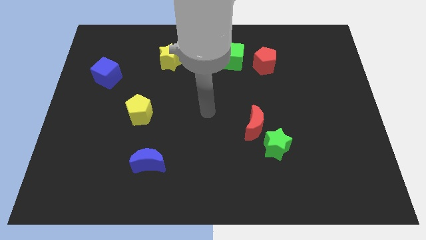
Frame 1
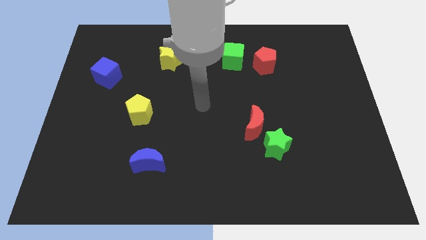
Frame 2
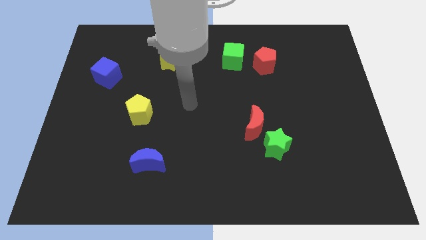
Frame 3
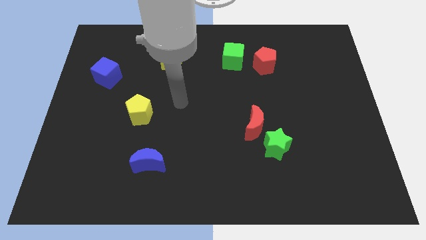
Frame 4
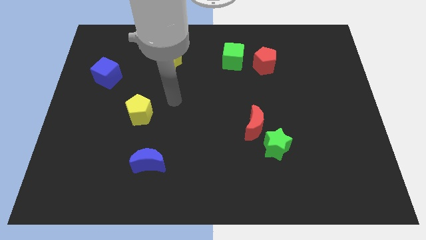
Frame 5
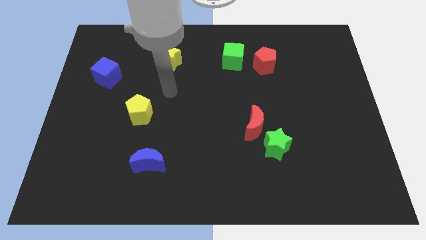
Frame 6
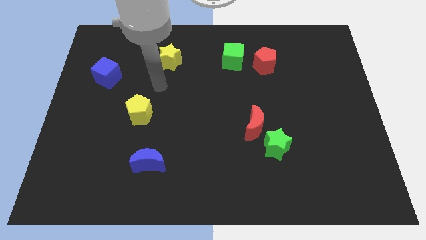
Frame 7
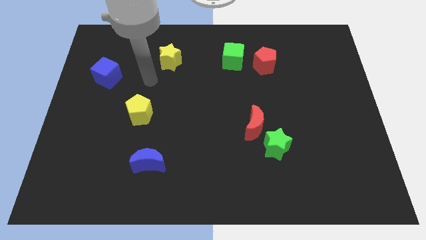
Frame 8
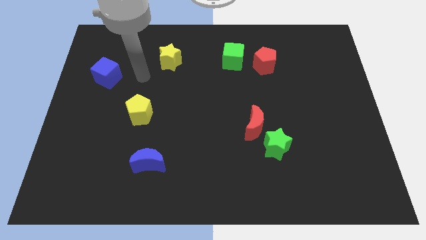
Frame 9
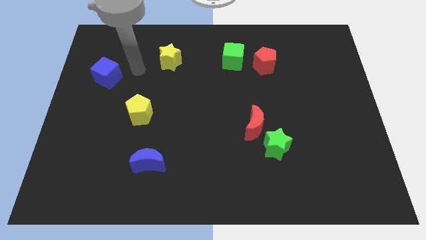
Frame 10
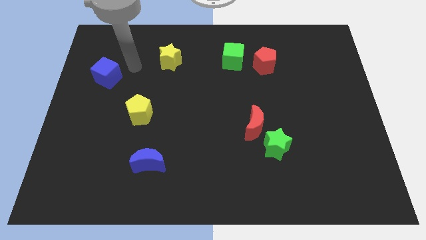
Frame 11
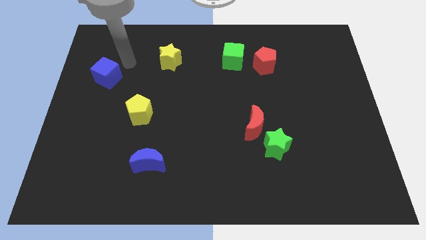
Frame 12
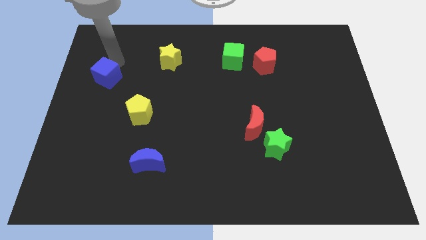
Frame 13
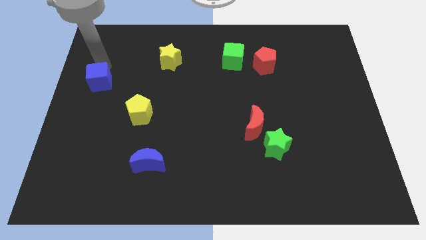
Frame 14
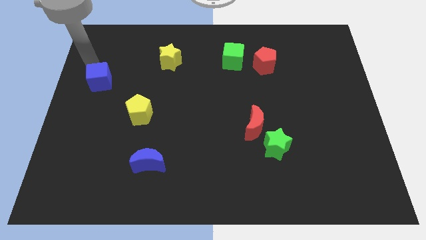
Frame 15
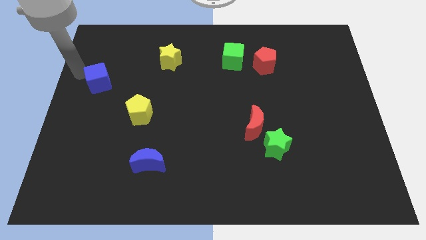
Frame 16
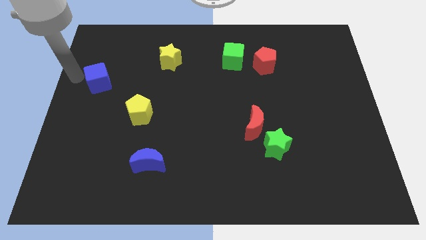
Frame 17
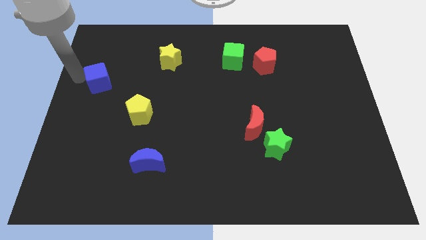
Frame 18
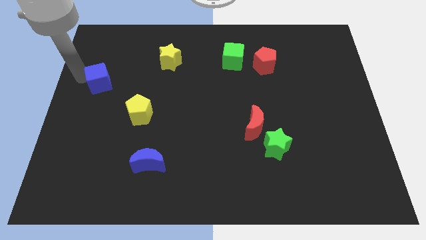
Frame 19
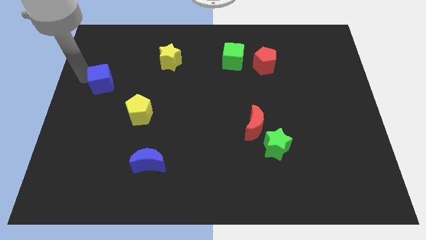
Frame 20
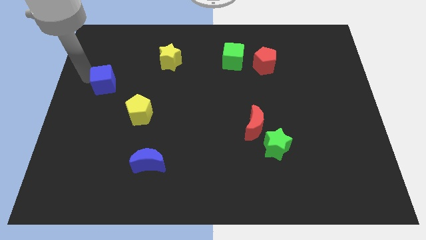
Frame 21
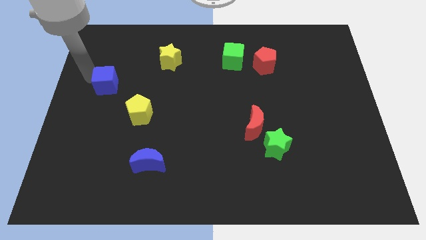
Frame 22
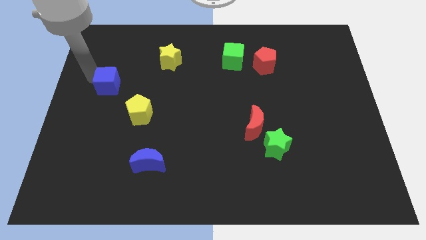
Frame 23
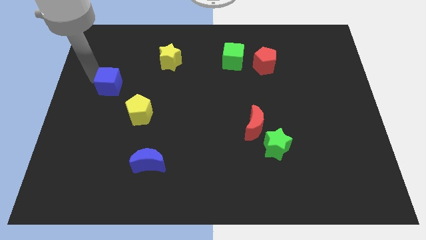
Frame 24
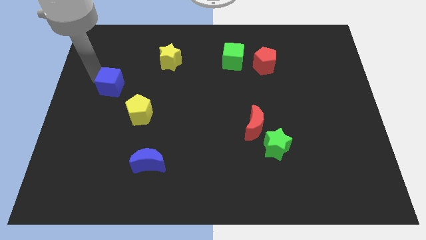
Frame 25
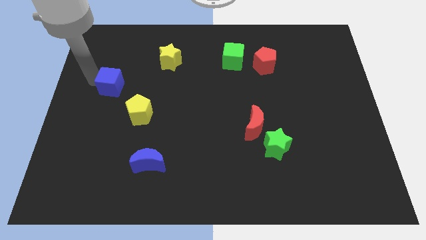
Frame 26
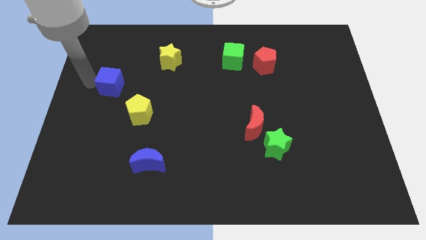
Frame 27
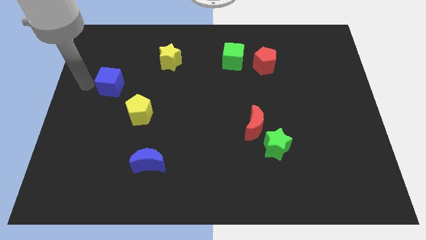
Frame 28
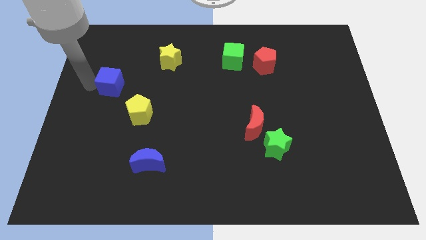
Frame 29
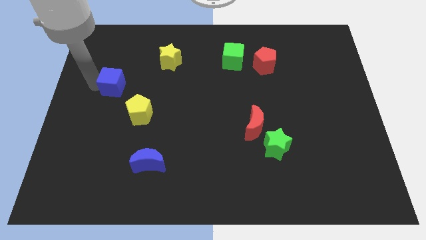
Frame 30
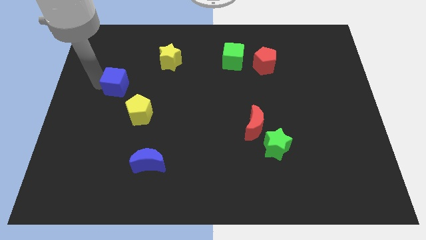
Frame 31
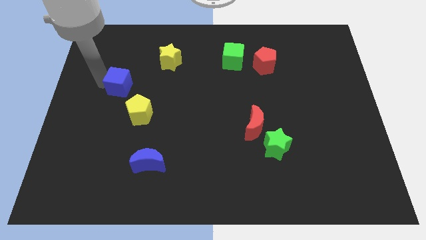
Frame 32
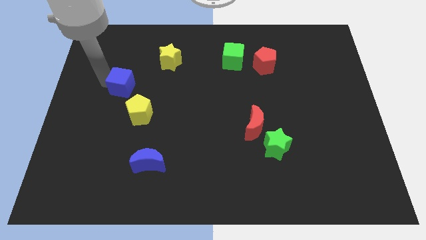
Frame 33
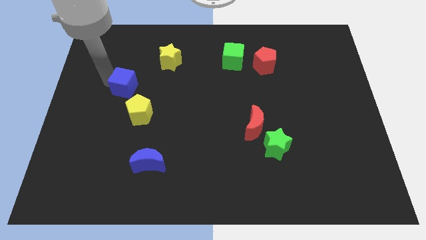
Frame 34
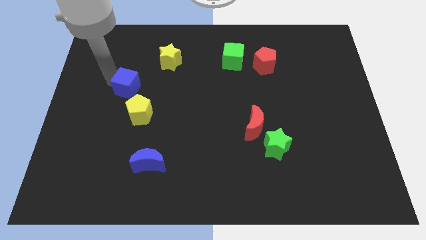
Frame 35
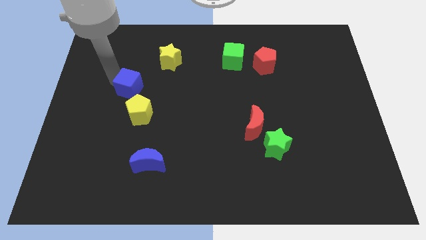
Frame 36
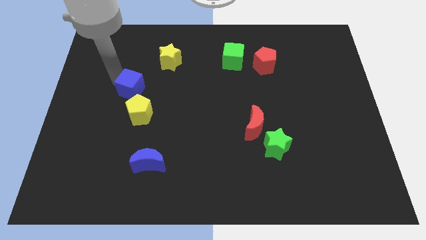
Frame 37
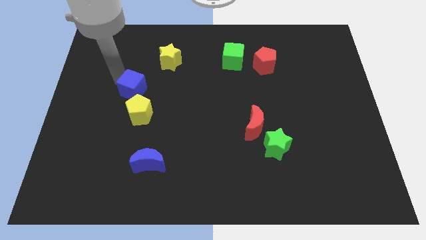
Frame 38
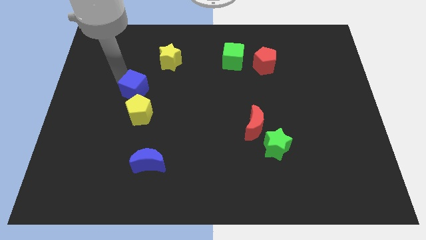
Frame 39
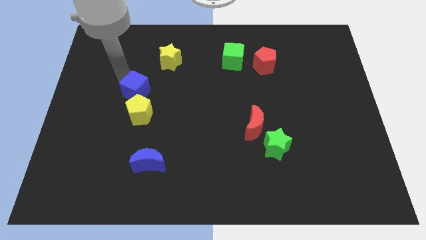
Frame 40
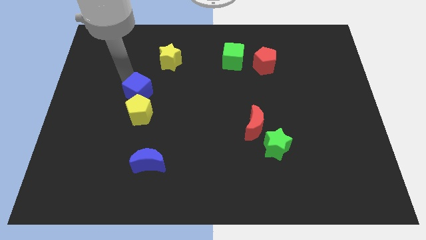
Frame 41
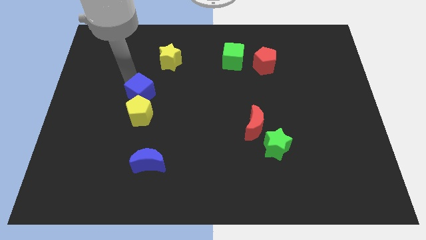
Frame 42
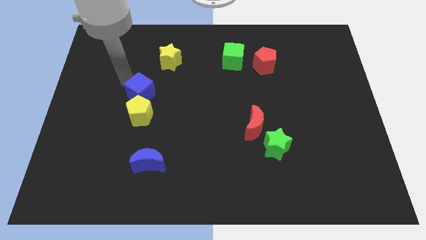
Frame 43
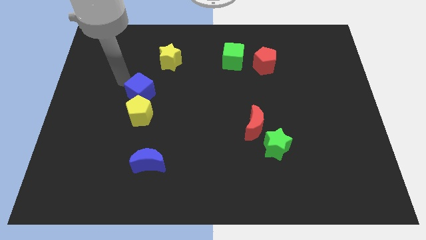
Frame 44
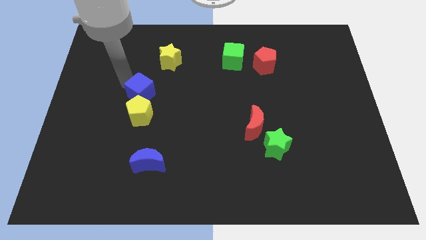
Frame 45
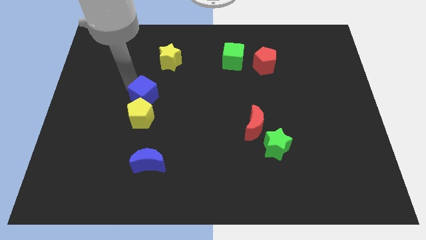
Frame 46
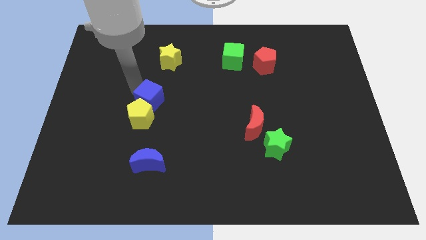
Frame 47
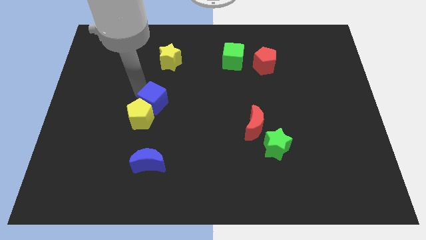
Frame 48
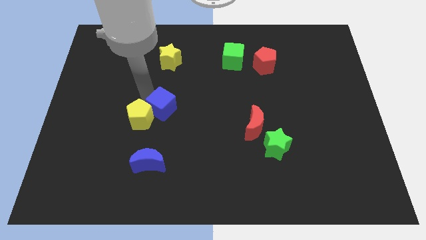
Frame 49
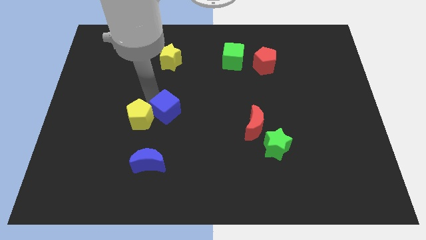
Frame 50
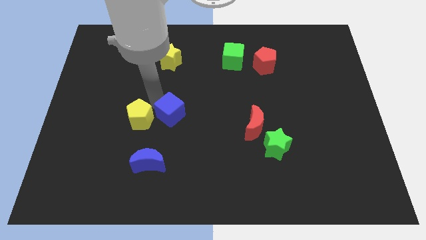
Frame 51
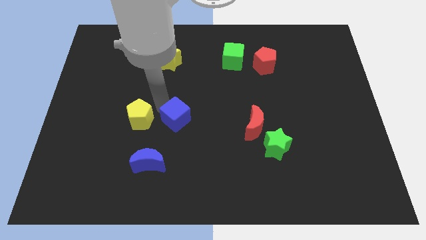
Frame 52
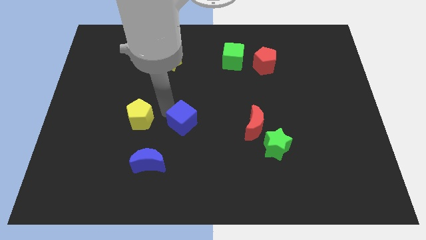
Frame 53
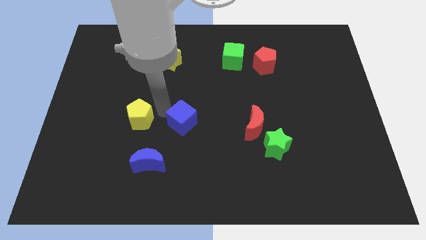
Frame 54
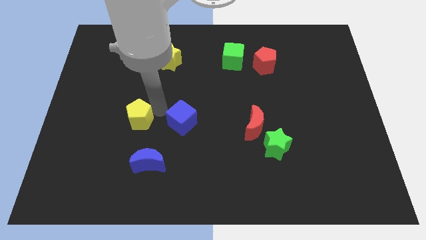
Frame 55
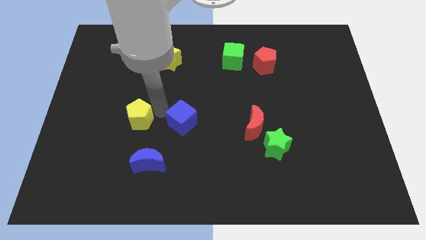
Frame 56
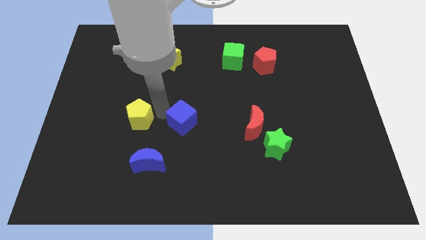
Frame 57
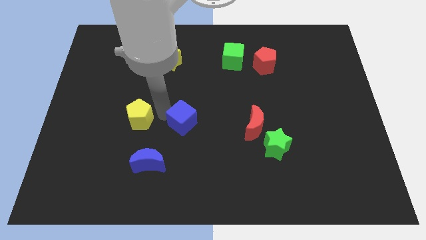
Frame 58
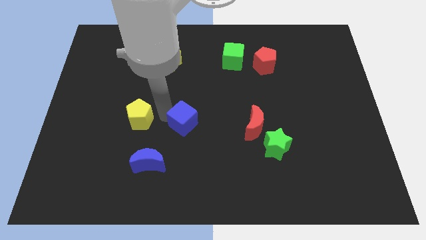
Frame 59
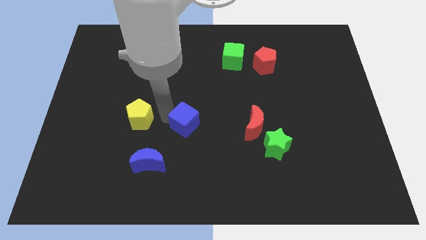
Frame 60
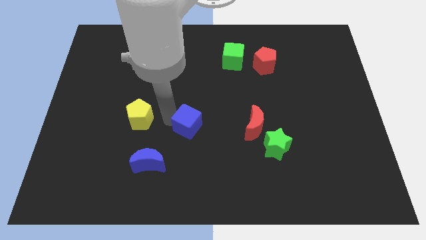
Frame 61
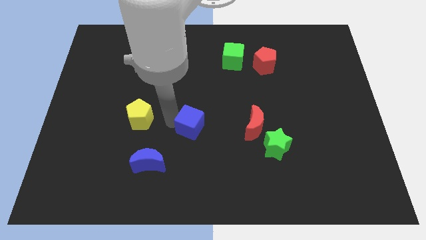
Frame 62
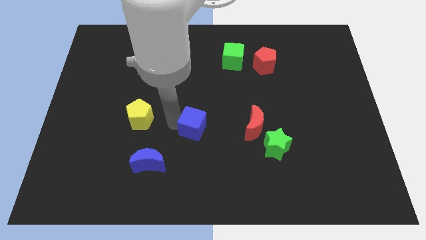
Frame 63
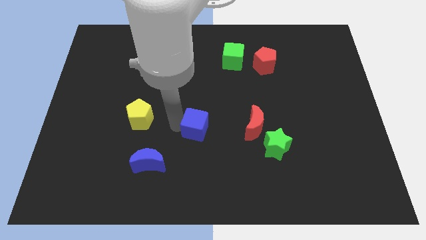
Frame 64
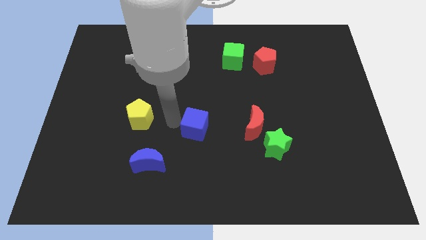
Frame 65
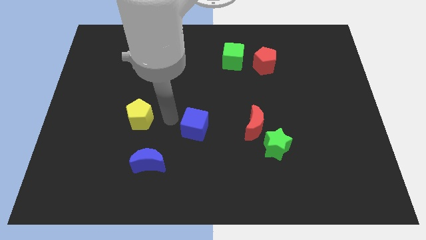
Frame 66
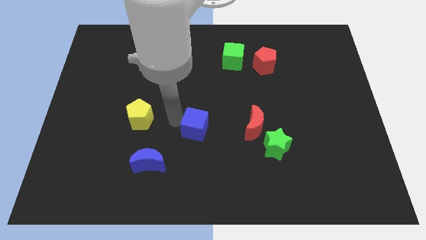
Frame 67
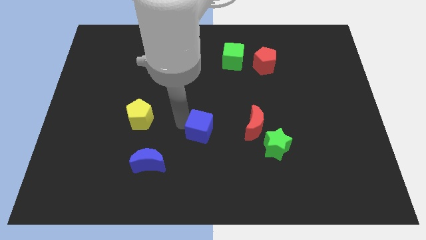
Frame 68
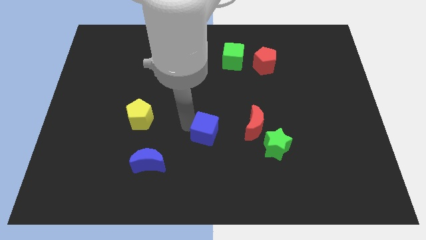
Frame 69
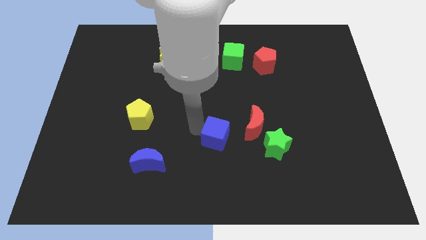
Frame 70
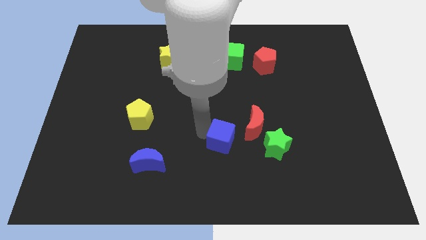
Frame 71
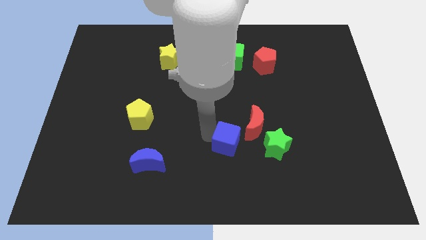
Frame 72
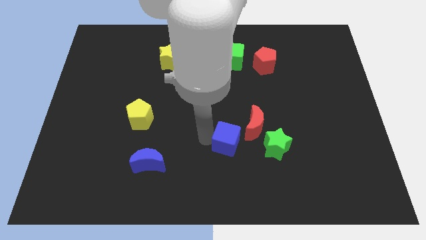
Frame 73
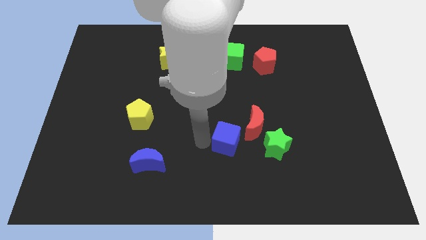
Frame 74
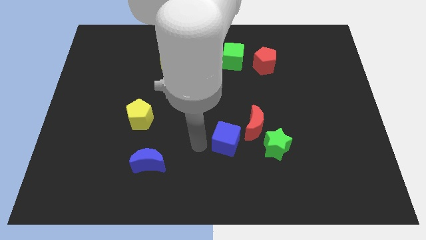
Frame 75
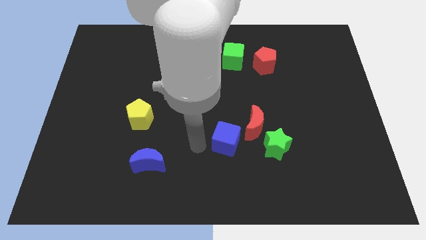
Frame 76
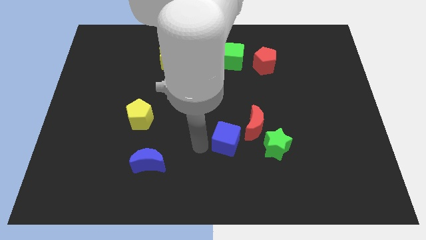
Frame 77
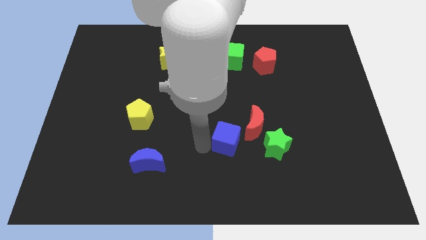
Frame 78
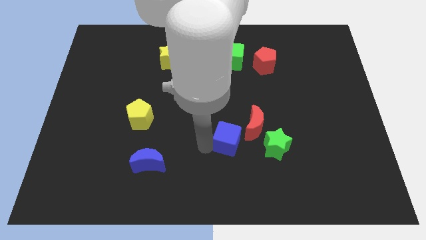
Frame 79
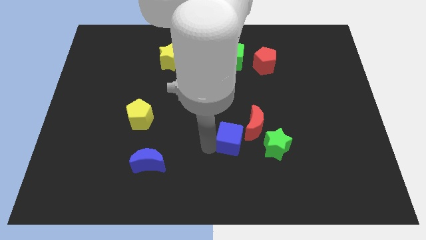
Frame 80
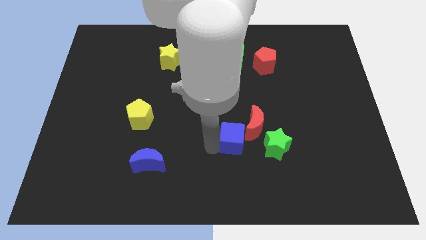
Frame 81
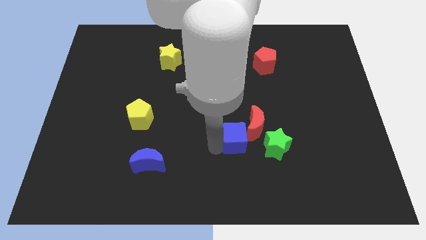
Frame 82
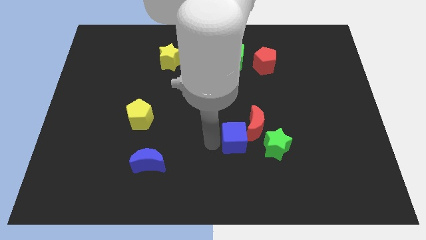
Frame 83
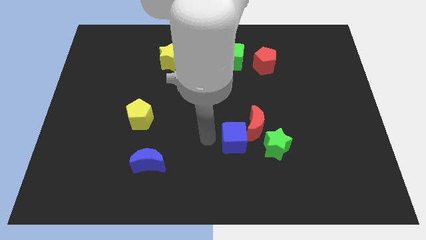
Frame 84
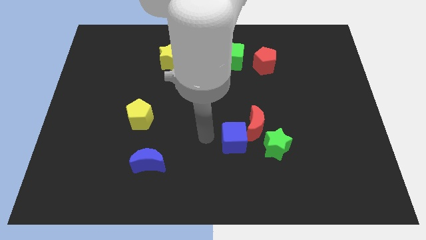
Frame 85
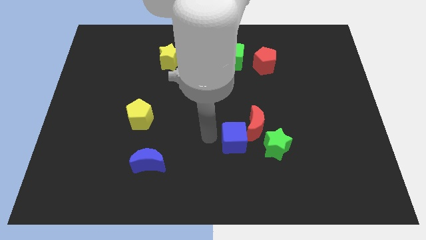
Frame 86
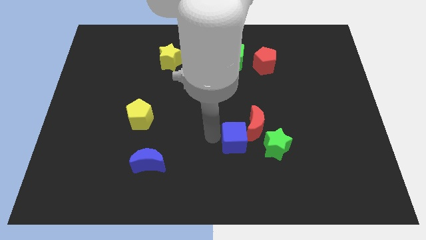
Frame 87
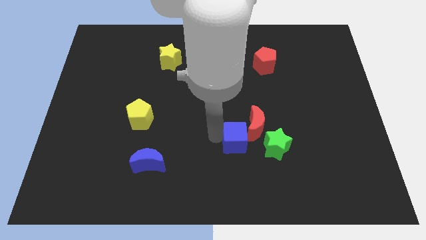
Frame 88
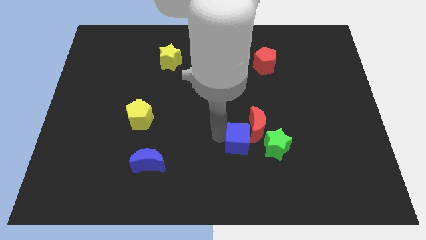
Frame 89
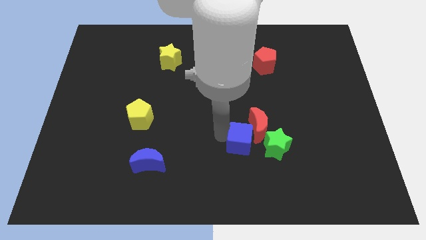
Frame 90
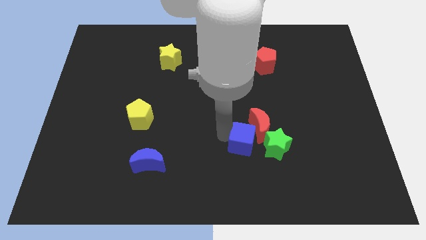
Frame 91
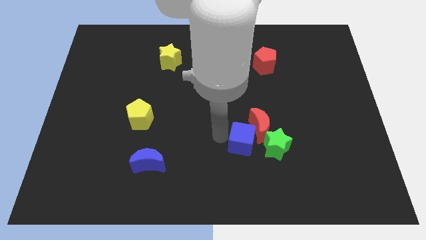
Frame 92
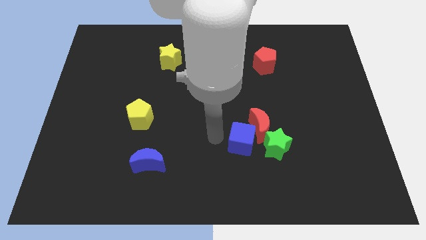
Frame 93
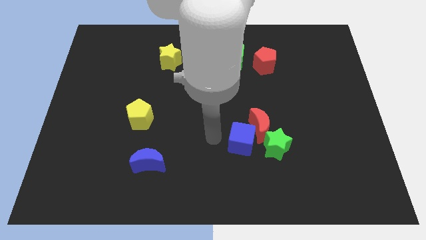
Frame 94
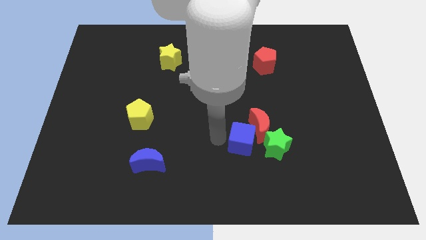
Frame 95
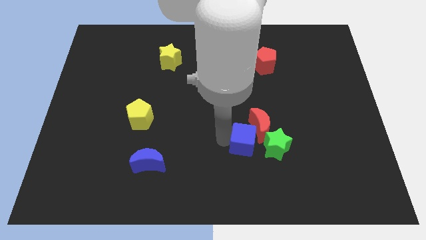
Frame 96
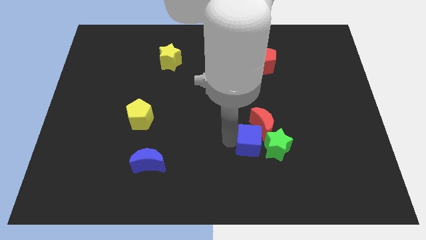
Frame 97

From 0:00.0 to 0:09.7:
put the blue cube towards the green star
